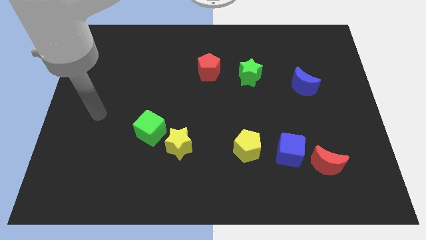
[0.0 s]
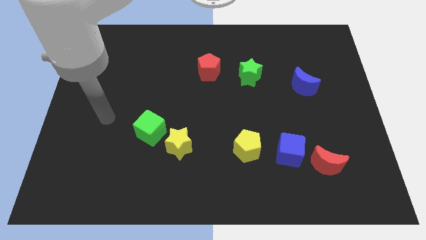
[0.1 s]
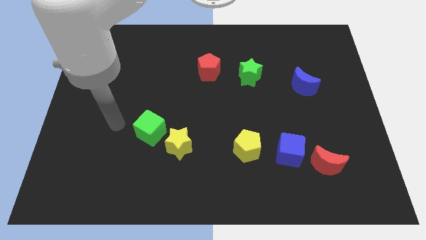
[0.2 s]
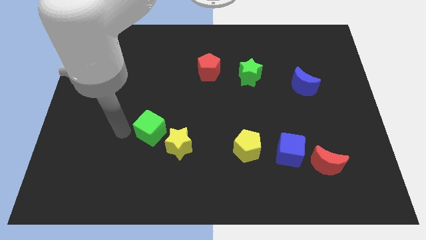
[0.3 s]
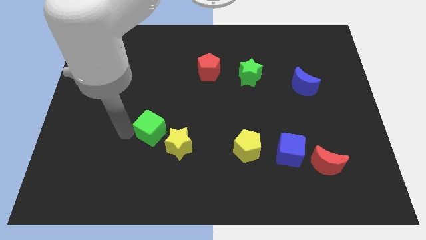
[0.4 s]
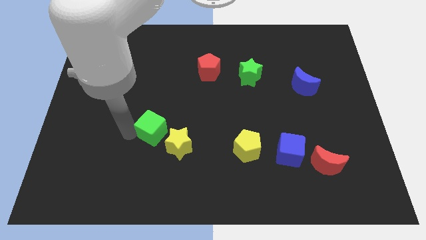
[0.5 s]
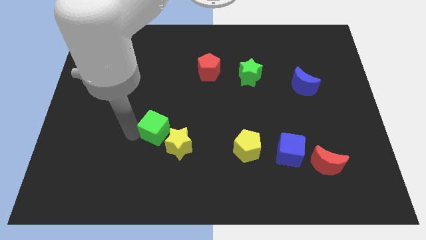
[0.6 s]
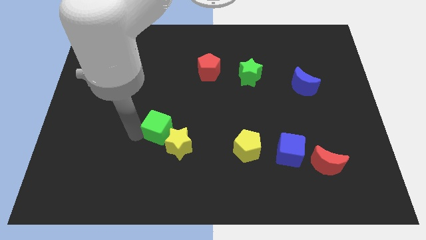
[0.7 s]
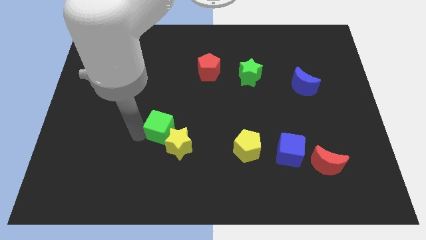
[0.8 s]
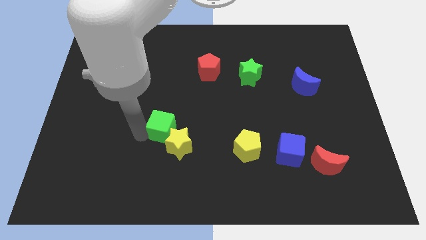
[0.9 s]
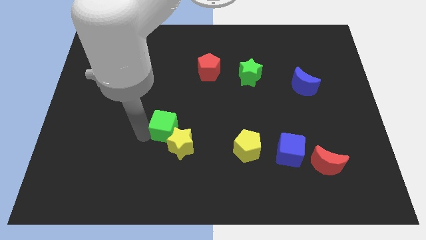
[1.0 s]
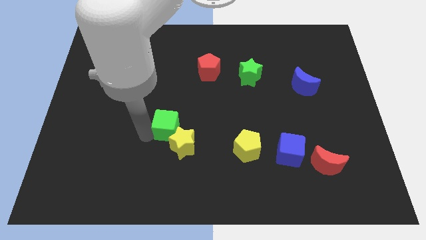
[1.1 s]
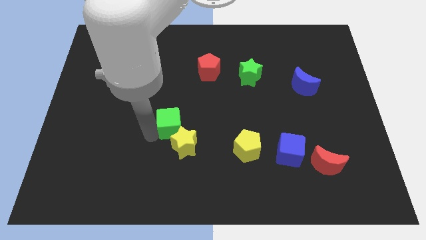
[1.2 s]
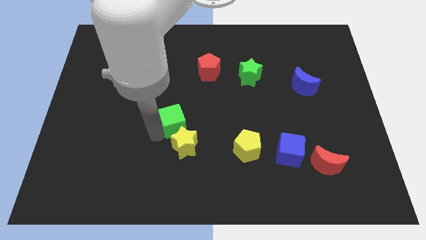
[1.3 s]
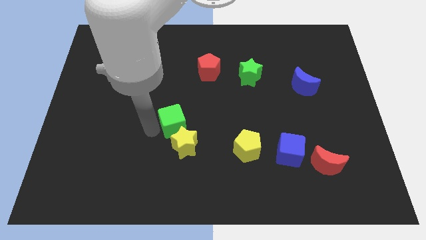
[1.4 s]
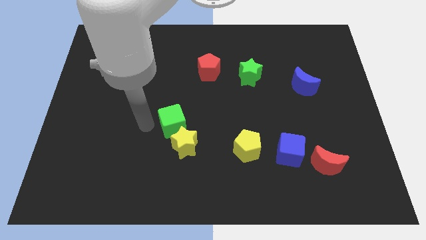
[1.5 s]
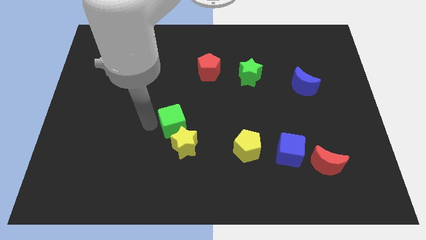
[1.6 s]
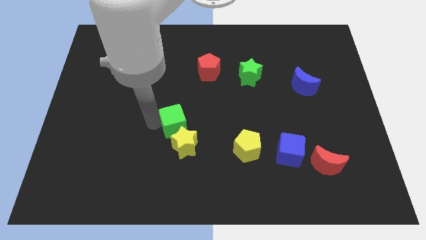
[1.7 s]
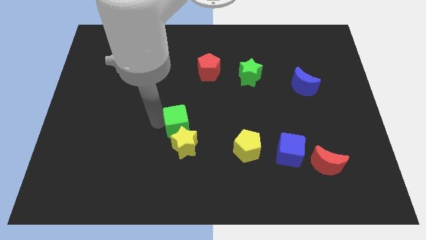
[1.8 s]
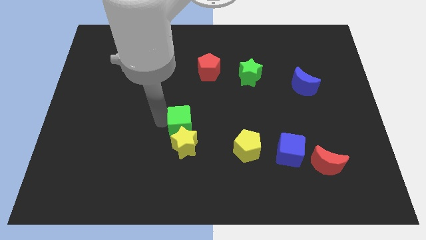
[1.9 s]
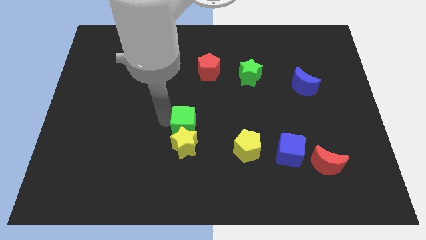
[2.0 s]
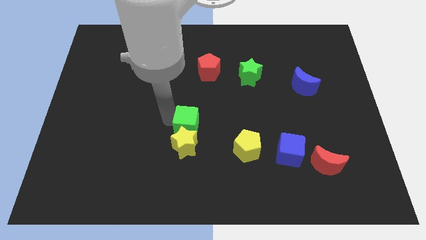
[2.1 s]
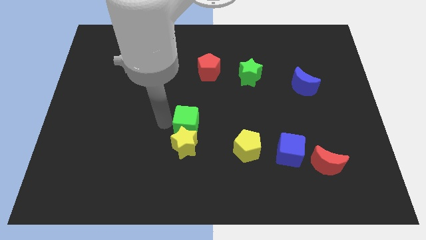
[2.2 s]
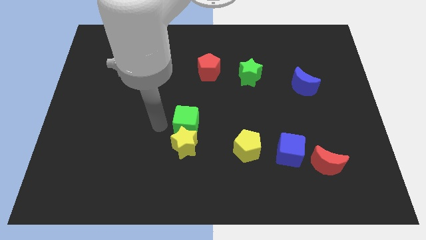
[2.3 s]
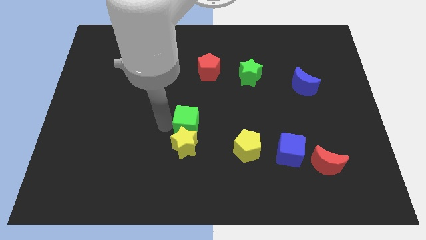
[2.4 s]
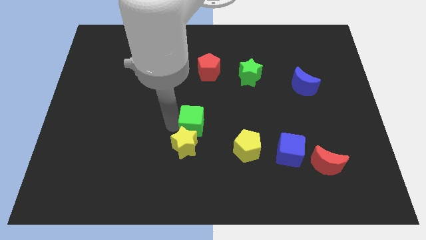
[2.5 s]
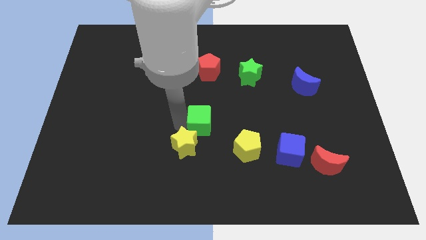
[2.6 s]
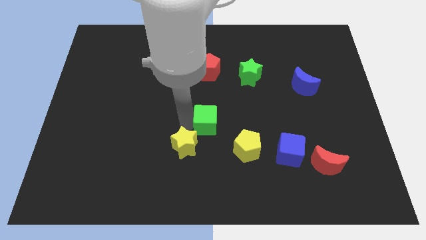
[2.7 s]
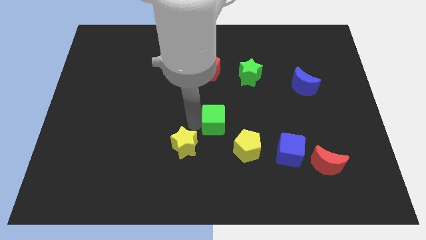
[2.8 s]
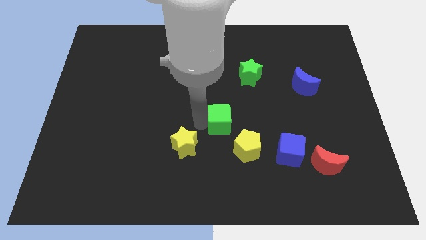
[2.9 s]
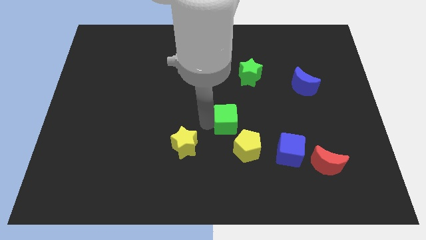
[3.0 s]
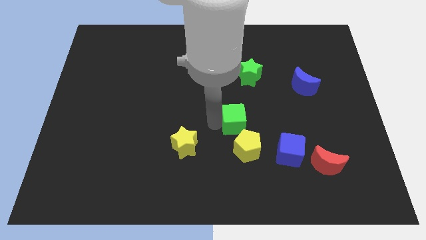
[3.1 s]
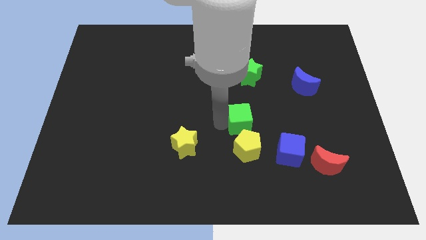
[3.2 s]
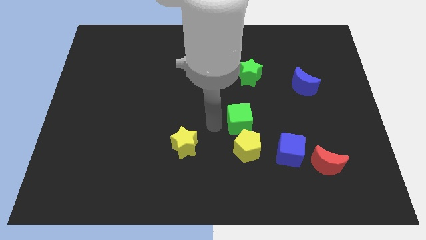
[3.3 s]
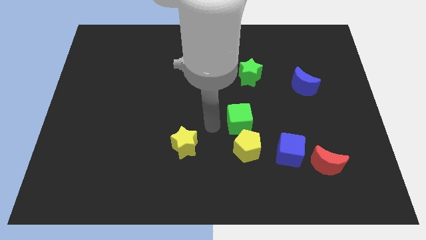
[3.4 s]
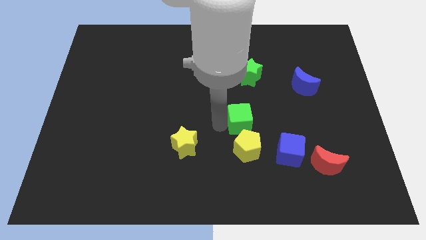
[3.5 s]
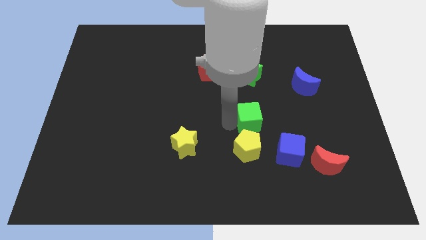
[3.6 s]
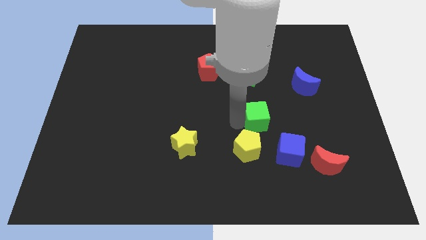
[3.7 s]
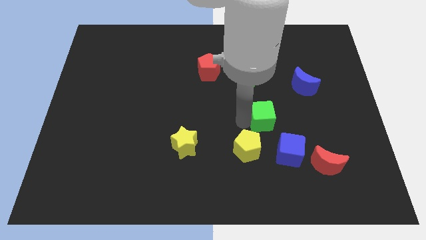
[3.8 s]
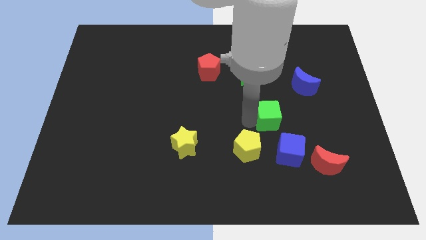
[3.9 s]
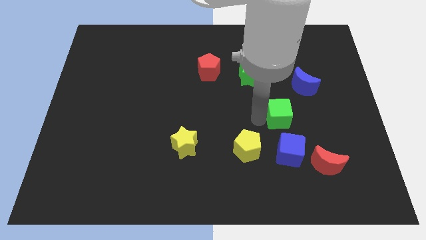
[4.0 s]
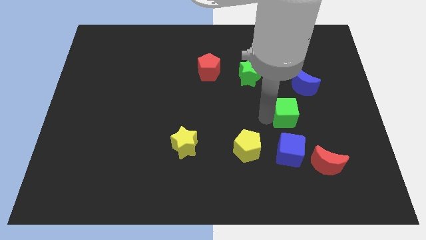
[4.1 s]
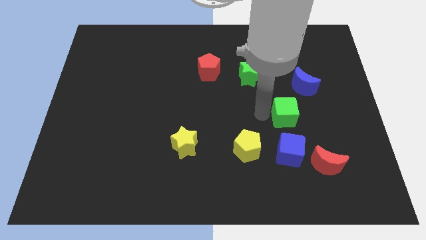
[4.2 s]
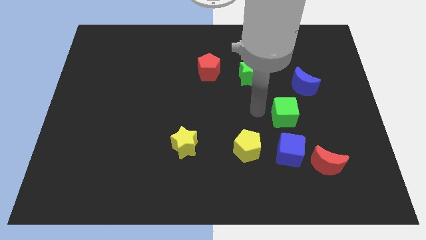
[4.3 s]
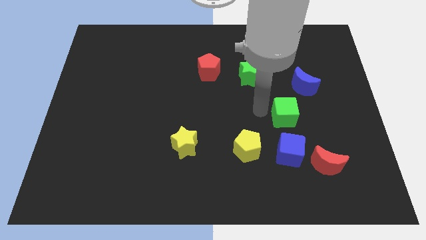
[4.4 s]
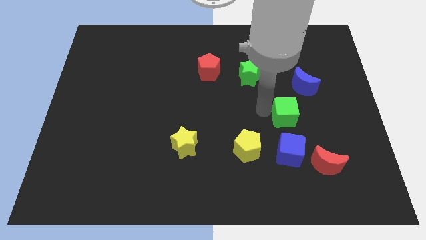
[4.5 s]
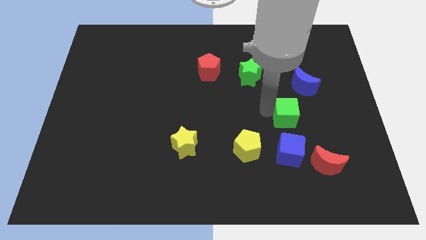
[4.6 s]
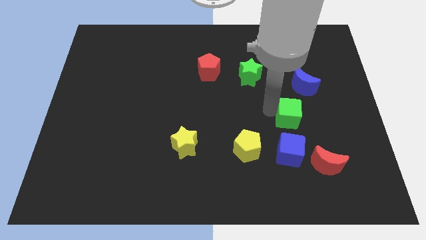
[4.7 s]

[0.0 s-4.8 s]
slide the green cube below the blue moon

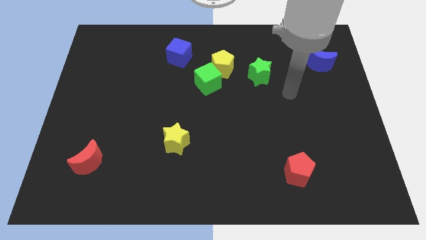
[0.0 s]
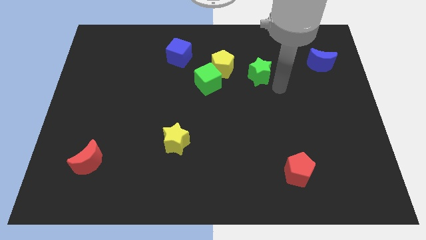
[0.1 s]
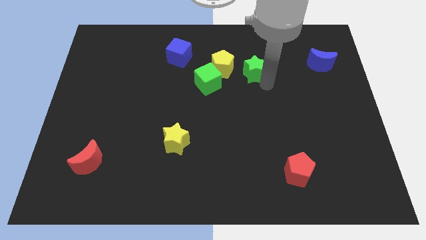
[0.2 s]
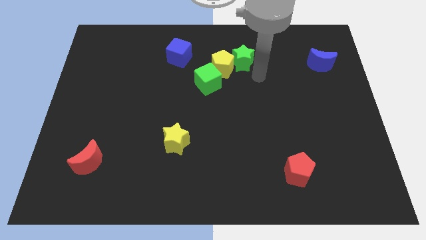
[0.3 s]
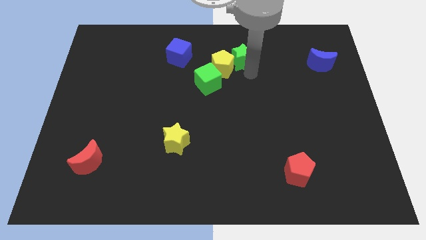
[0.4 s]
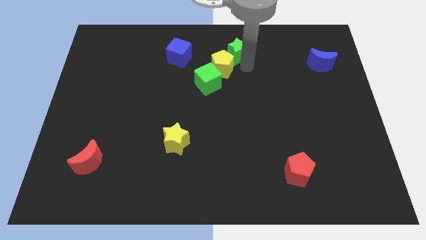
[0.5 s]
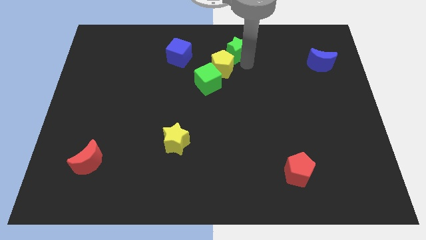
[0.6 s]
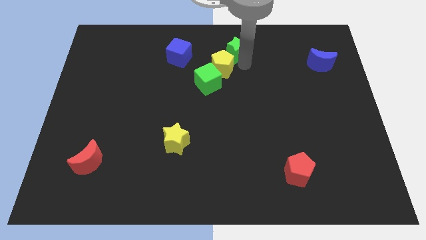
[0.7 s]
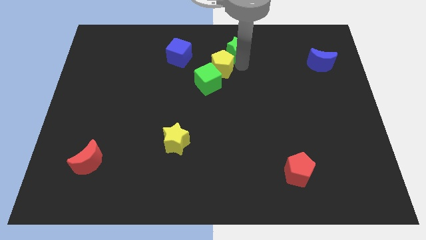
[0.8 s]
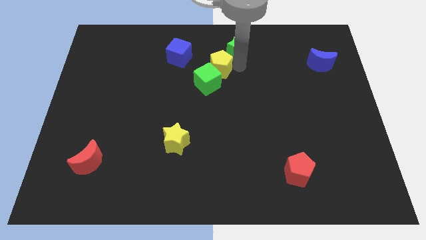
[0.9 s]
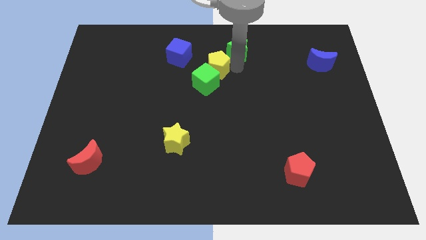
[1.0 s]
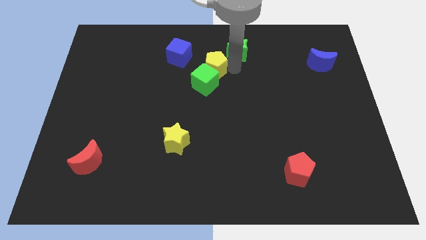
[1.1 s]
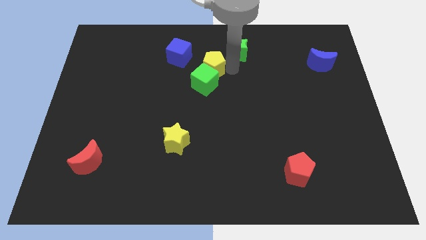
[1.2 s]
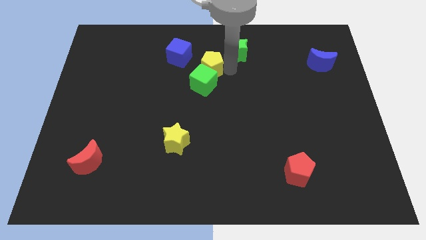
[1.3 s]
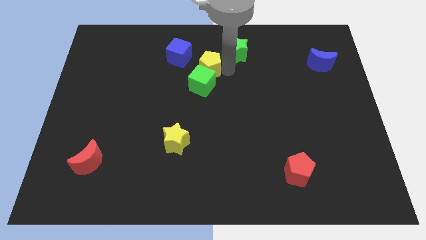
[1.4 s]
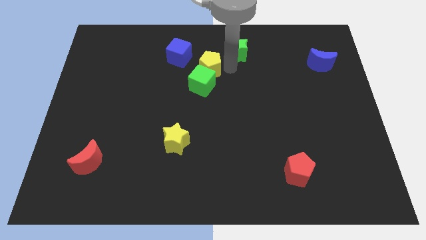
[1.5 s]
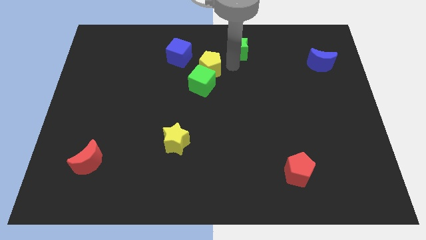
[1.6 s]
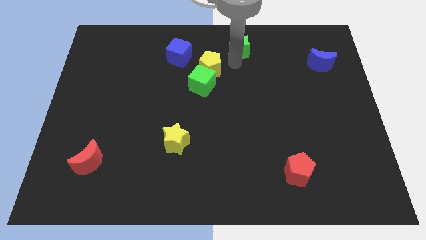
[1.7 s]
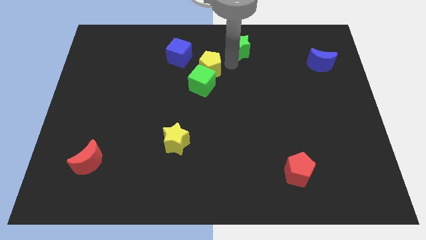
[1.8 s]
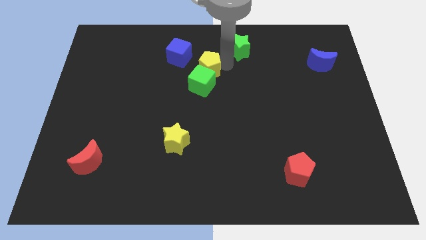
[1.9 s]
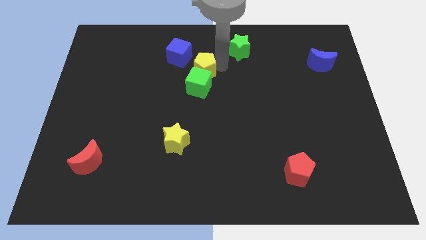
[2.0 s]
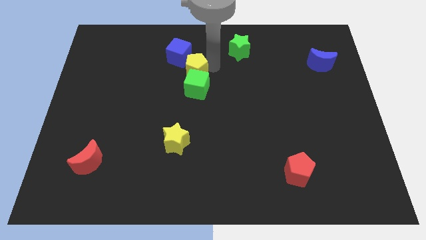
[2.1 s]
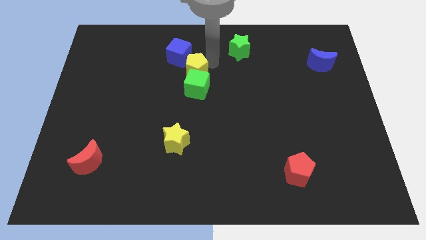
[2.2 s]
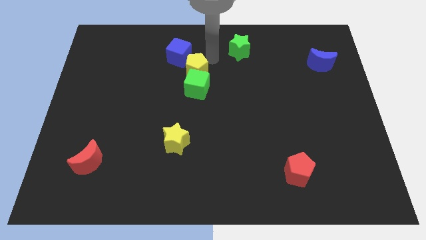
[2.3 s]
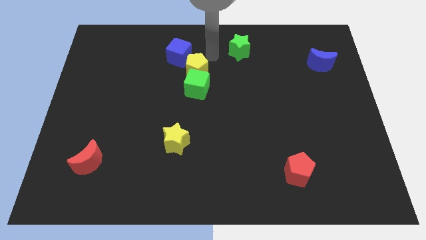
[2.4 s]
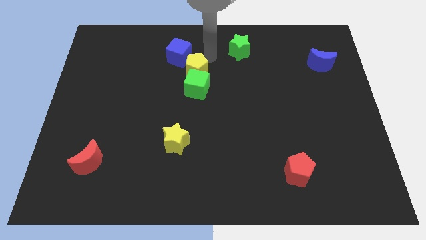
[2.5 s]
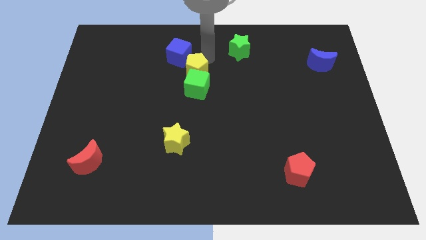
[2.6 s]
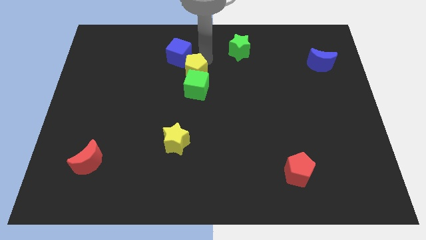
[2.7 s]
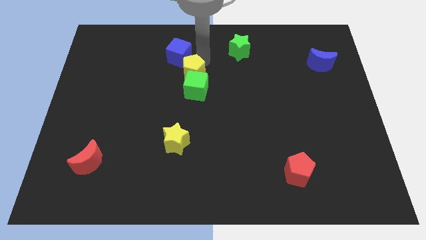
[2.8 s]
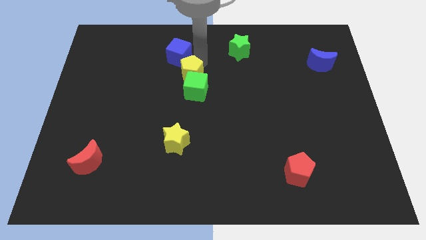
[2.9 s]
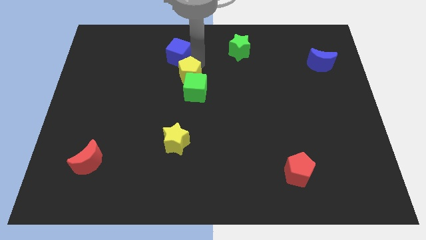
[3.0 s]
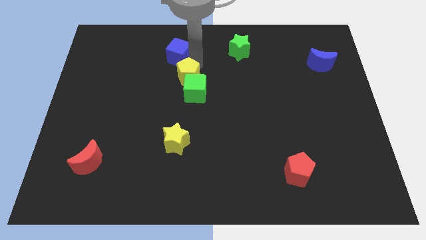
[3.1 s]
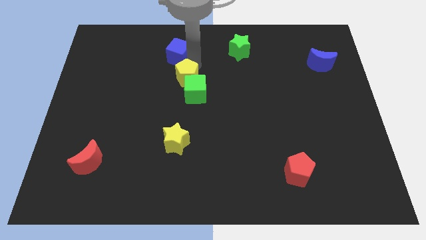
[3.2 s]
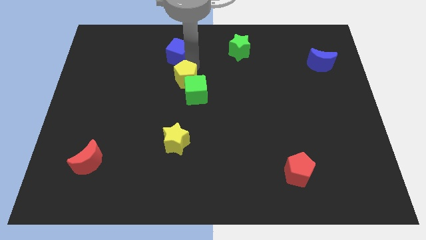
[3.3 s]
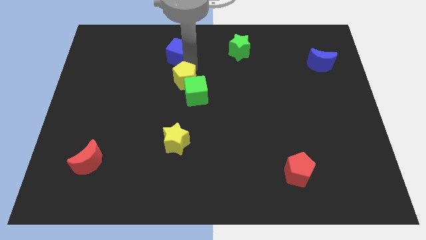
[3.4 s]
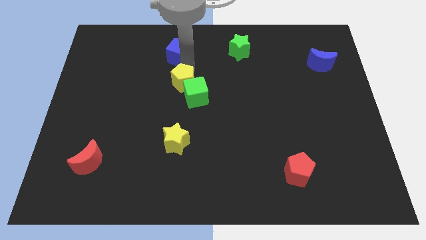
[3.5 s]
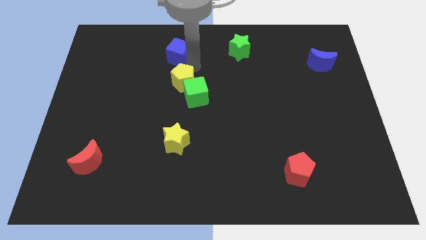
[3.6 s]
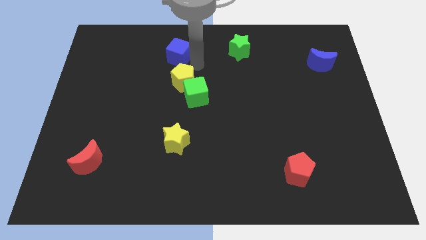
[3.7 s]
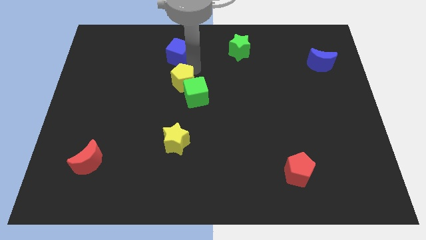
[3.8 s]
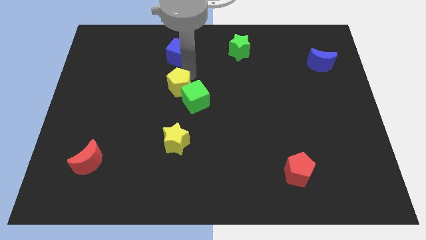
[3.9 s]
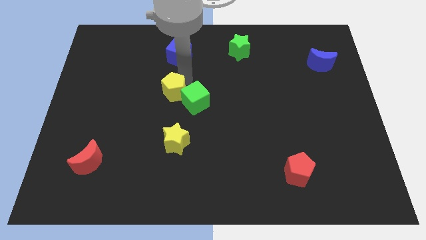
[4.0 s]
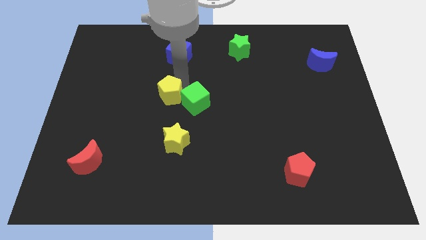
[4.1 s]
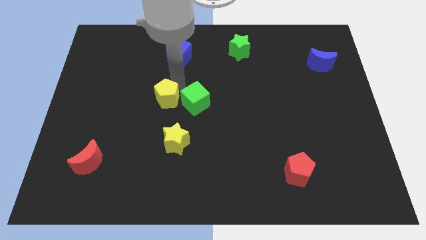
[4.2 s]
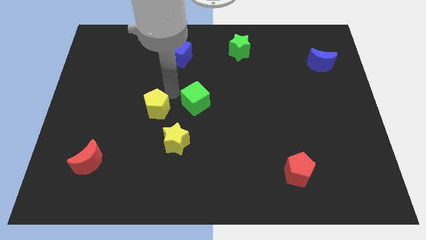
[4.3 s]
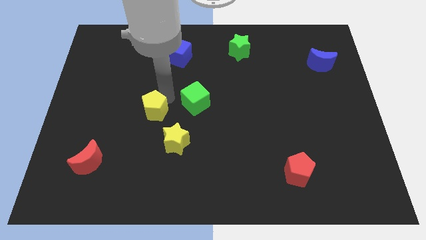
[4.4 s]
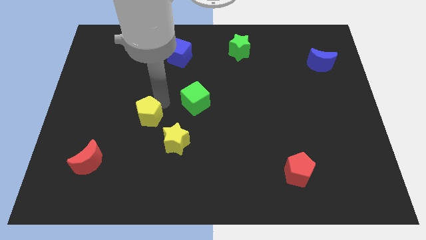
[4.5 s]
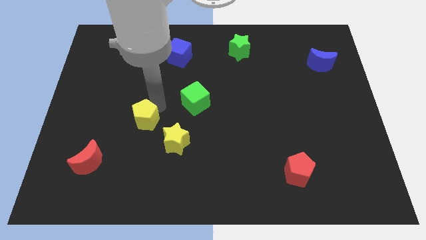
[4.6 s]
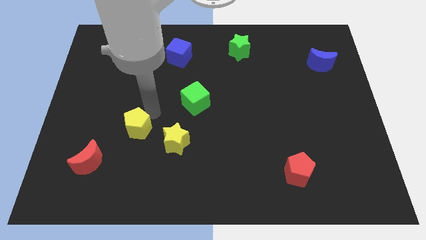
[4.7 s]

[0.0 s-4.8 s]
push the yellow pentagon to the top right side of the red moon
